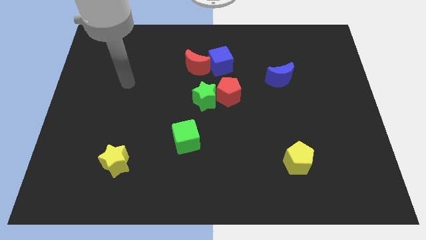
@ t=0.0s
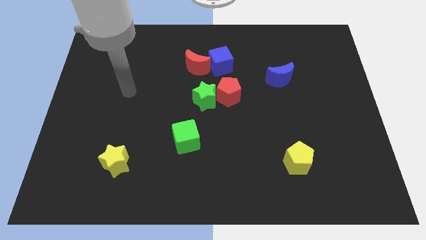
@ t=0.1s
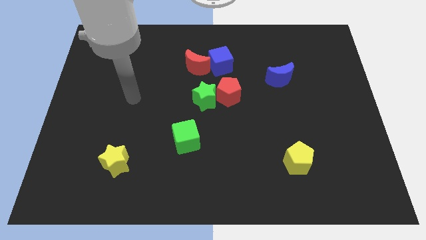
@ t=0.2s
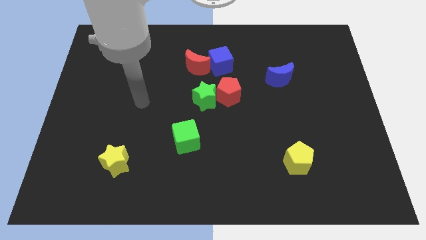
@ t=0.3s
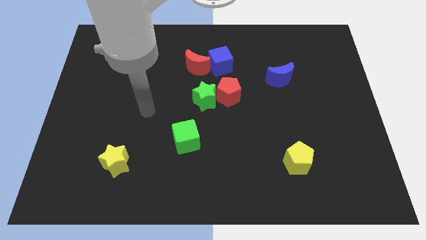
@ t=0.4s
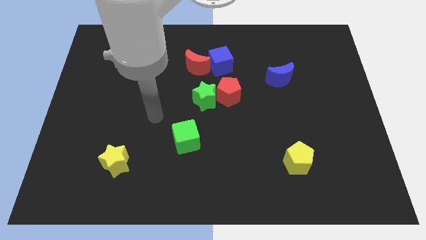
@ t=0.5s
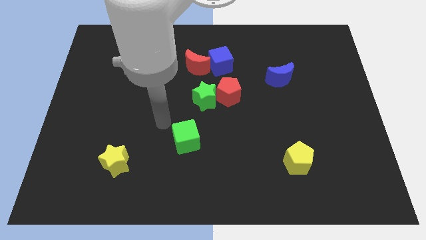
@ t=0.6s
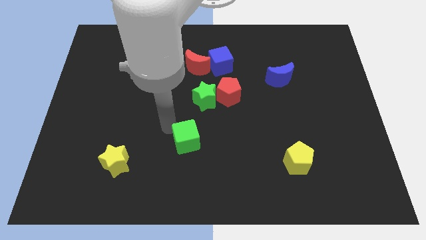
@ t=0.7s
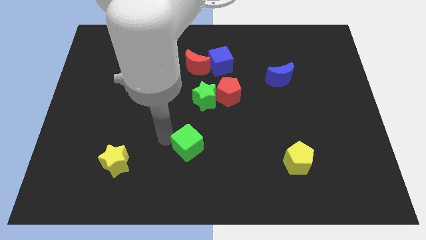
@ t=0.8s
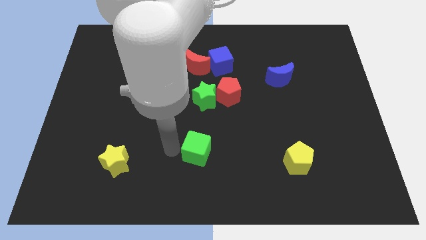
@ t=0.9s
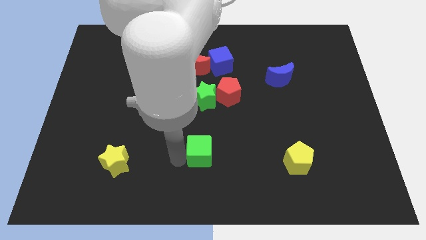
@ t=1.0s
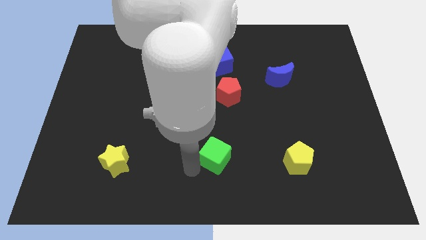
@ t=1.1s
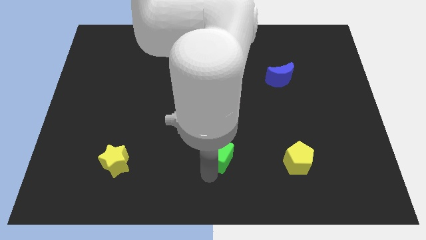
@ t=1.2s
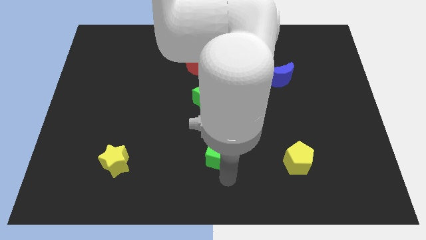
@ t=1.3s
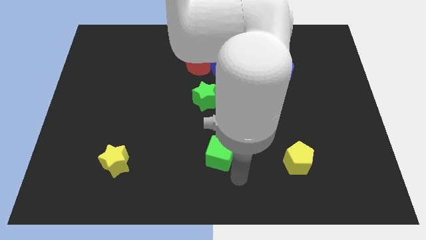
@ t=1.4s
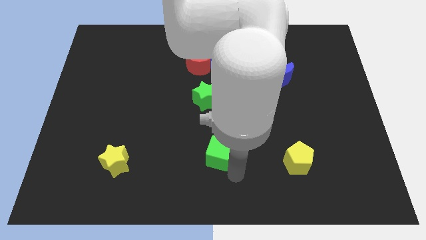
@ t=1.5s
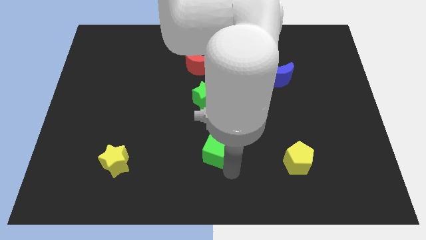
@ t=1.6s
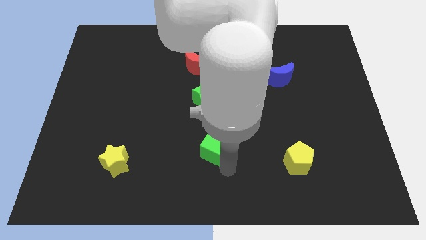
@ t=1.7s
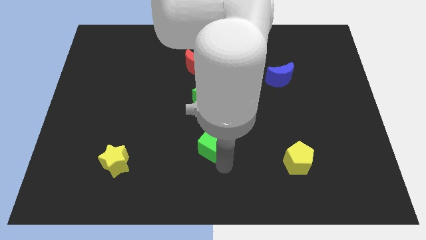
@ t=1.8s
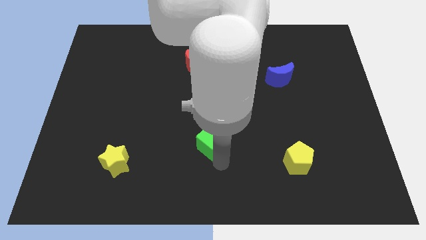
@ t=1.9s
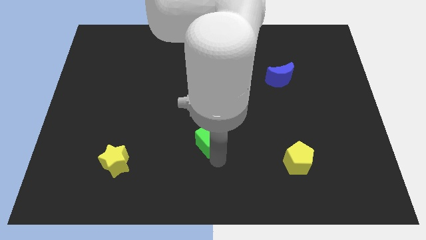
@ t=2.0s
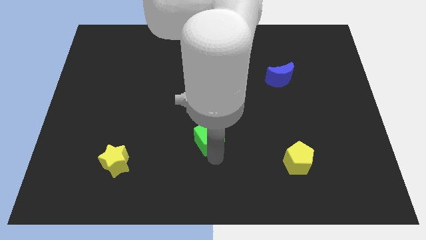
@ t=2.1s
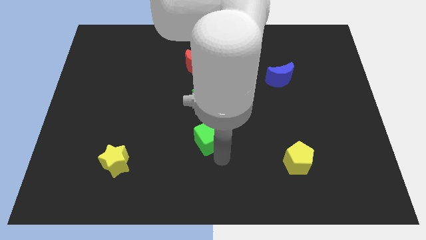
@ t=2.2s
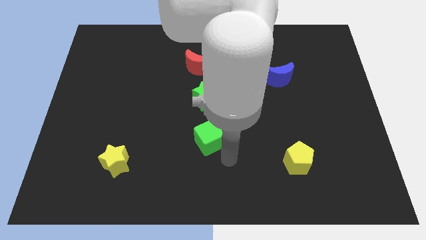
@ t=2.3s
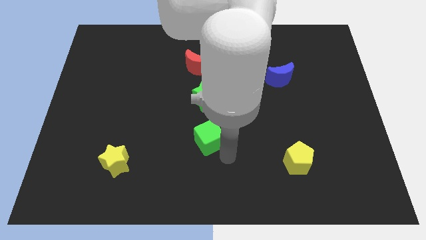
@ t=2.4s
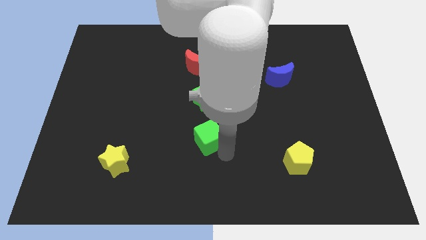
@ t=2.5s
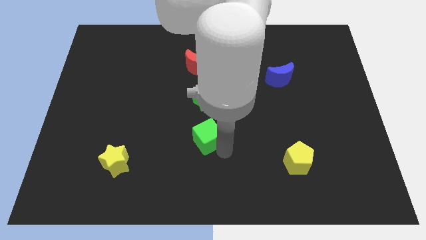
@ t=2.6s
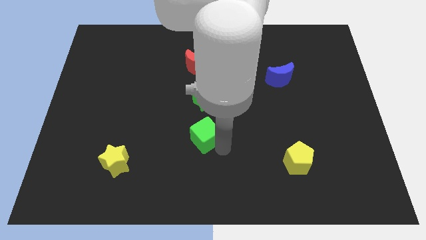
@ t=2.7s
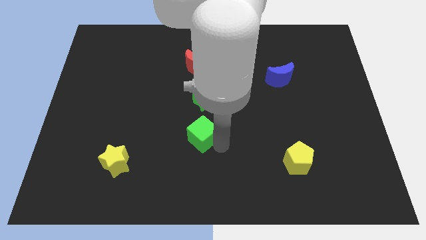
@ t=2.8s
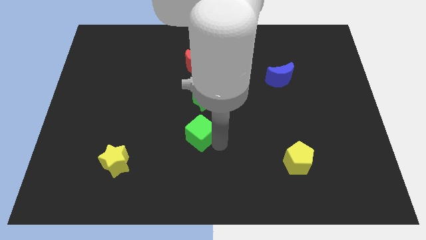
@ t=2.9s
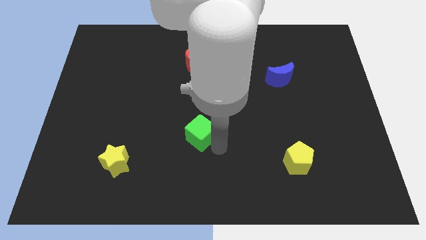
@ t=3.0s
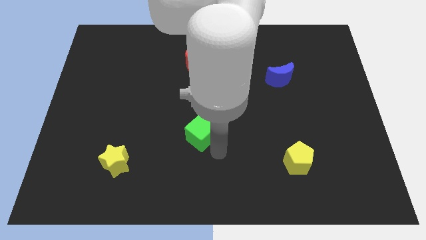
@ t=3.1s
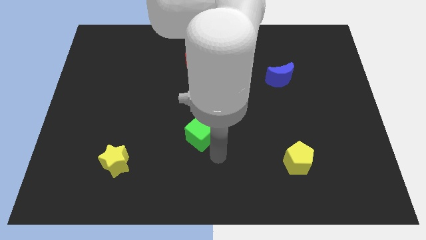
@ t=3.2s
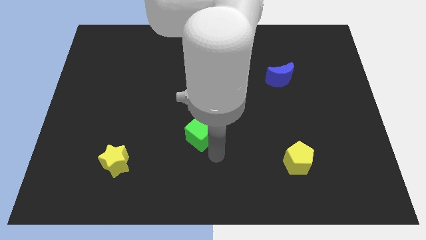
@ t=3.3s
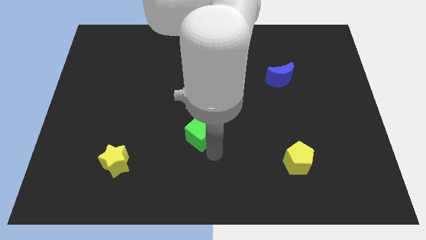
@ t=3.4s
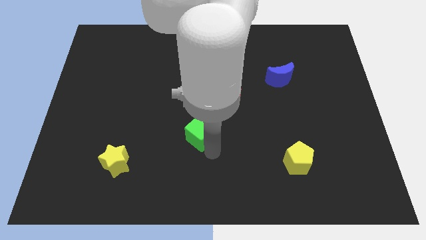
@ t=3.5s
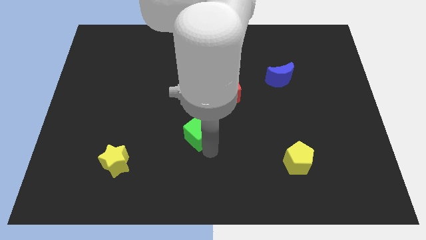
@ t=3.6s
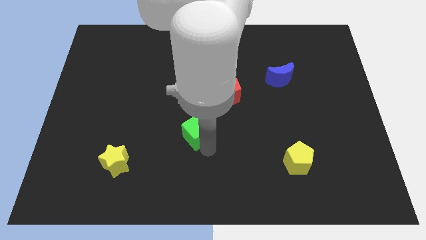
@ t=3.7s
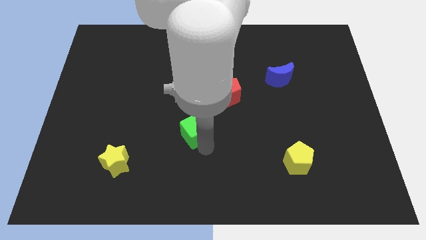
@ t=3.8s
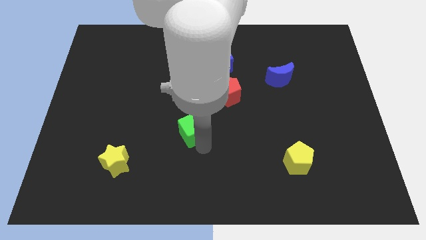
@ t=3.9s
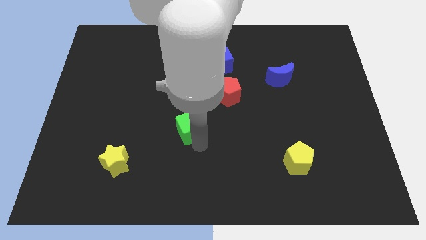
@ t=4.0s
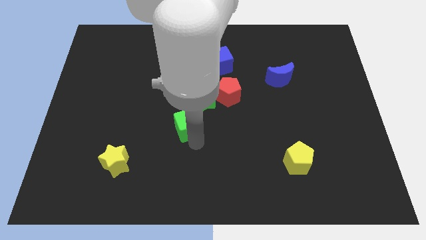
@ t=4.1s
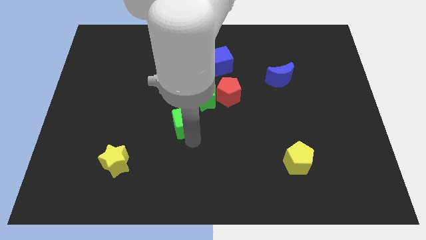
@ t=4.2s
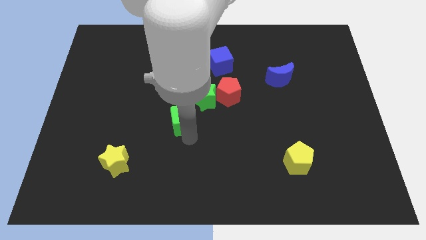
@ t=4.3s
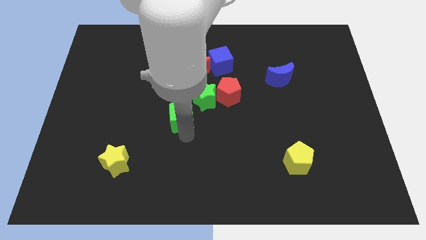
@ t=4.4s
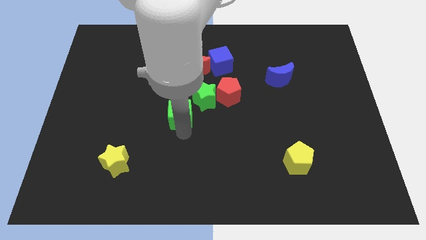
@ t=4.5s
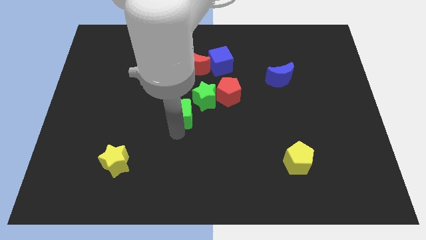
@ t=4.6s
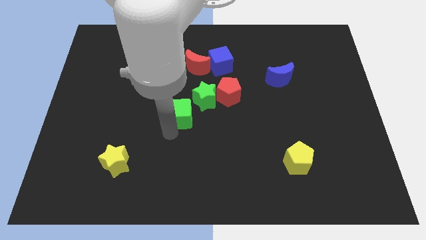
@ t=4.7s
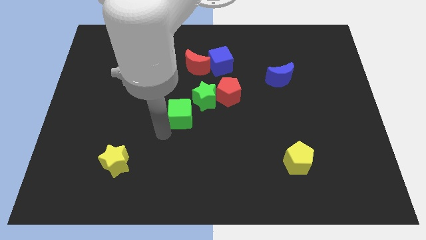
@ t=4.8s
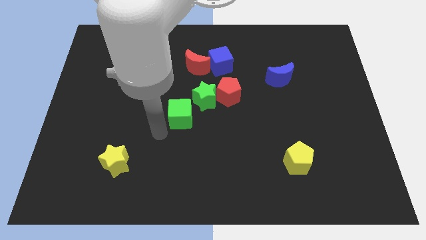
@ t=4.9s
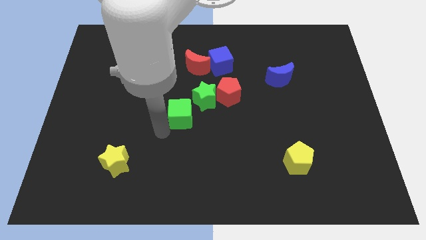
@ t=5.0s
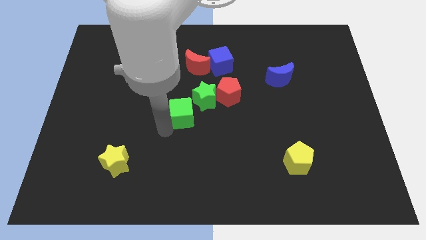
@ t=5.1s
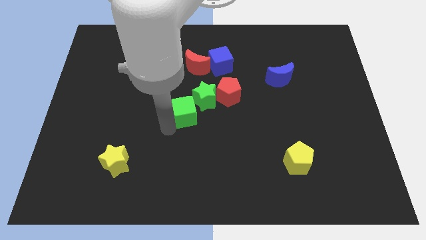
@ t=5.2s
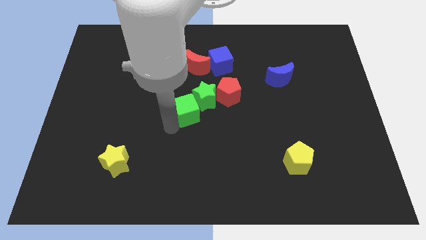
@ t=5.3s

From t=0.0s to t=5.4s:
move the green cube close to the green star

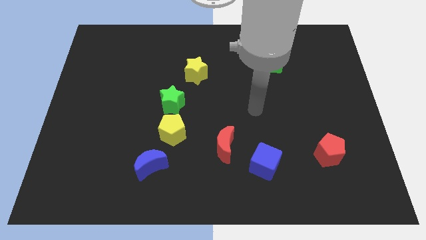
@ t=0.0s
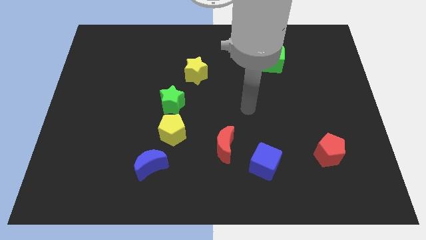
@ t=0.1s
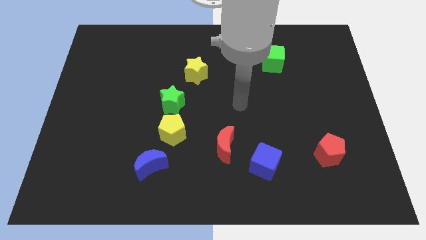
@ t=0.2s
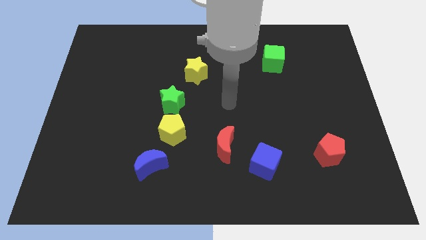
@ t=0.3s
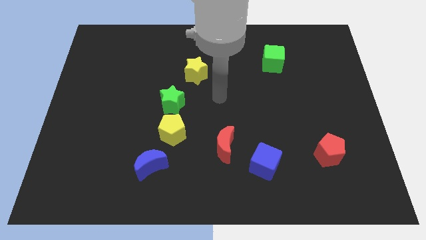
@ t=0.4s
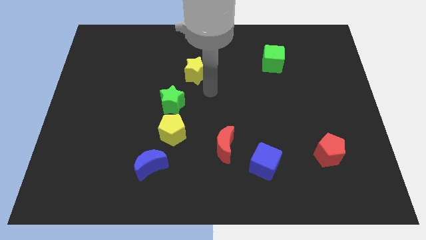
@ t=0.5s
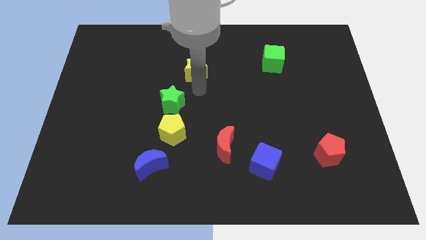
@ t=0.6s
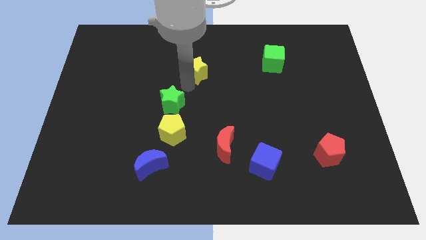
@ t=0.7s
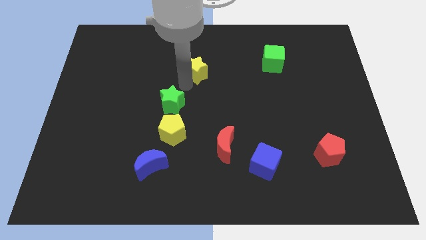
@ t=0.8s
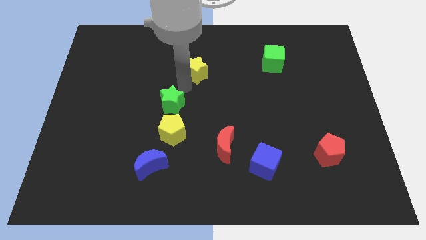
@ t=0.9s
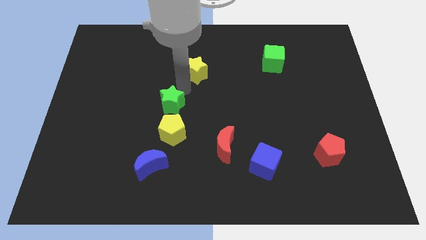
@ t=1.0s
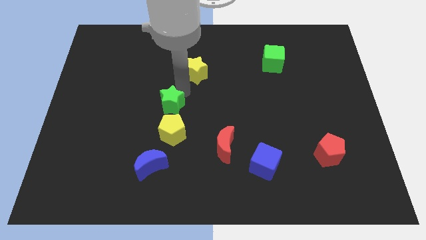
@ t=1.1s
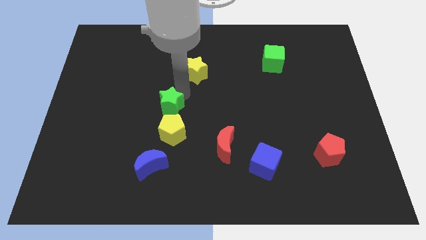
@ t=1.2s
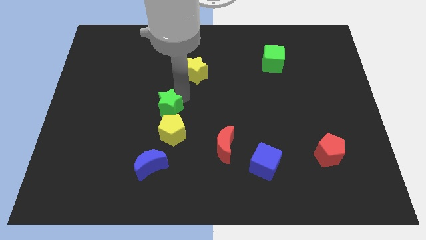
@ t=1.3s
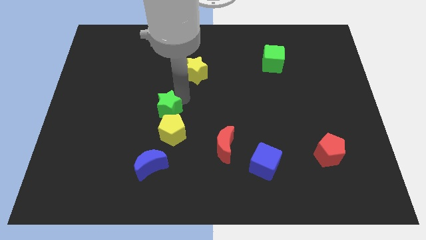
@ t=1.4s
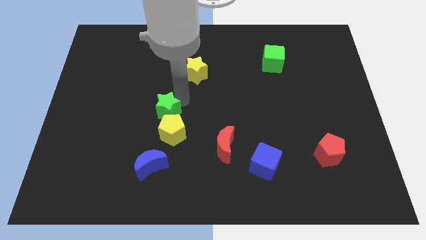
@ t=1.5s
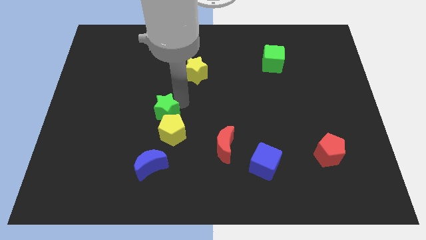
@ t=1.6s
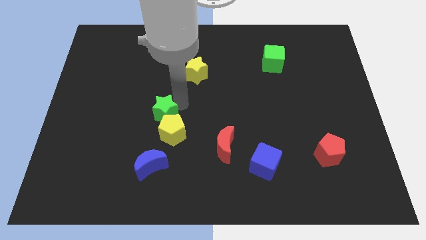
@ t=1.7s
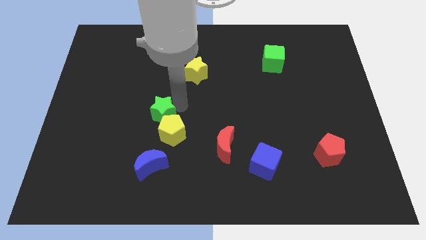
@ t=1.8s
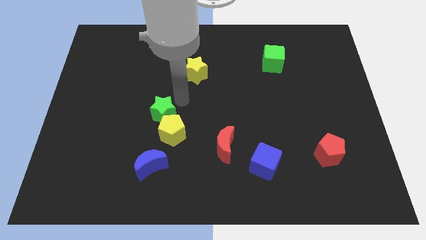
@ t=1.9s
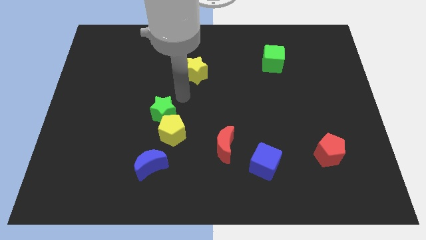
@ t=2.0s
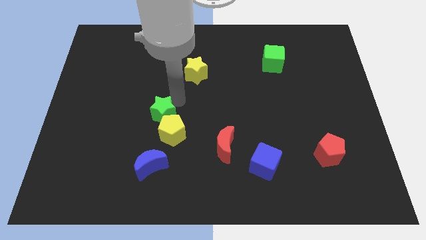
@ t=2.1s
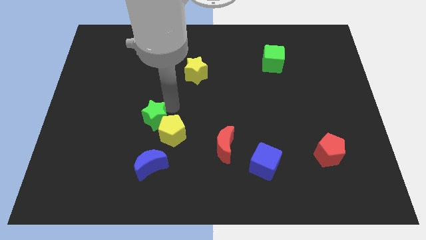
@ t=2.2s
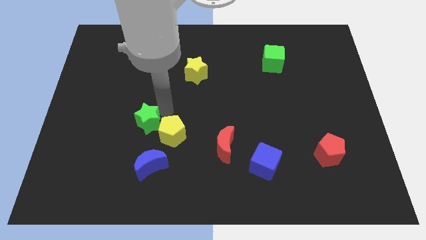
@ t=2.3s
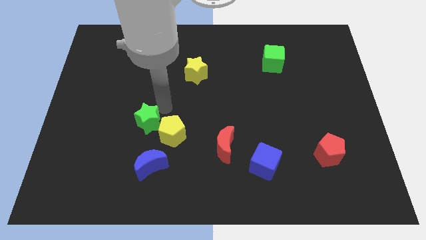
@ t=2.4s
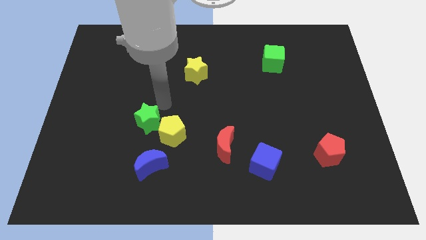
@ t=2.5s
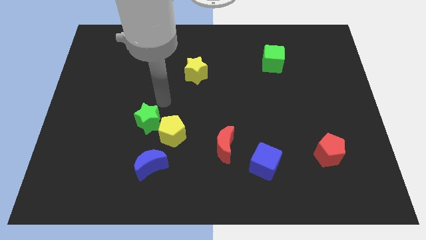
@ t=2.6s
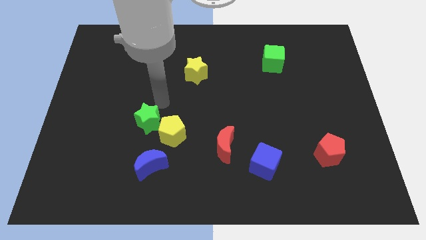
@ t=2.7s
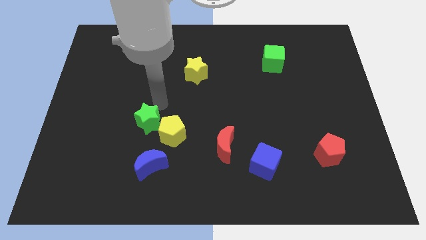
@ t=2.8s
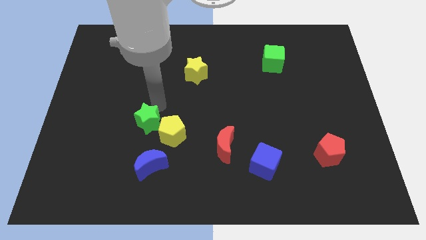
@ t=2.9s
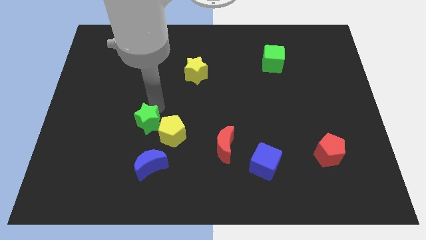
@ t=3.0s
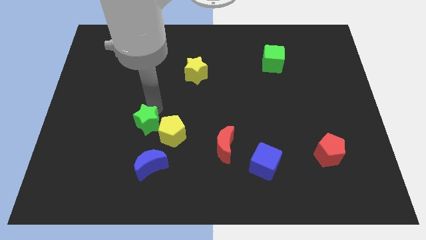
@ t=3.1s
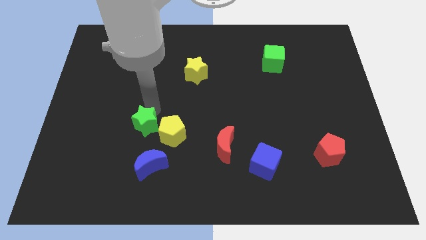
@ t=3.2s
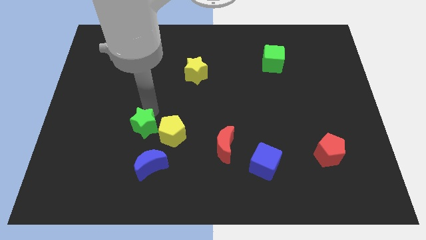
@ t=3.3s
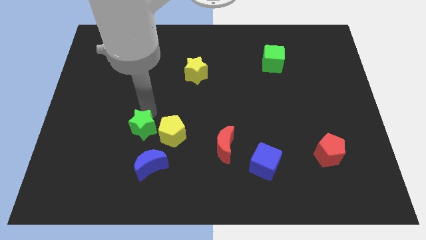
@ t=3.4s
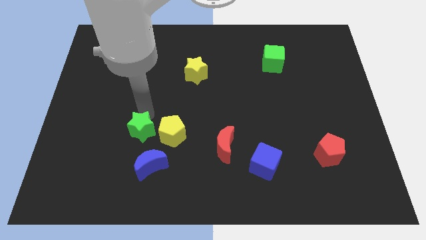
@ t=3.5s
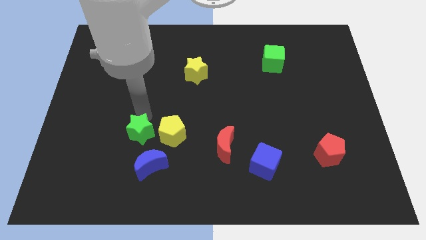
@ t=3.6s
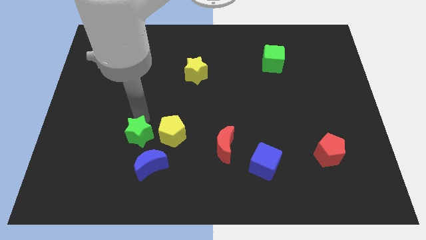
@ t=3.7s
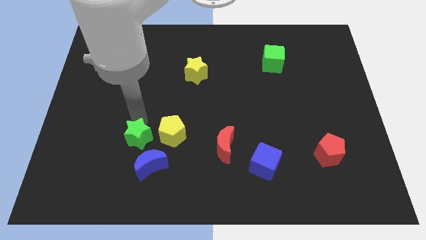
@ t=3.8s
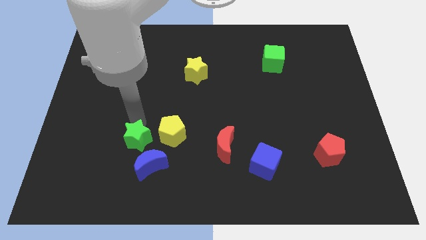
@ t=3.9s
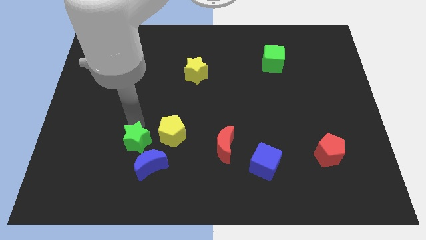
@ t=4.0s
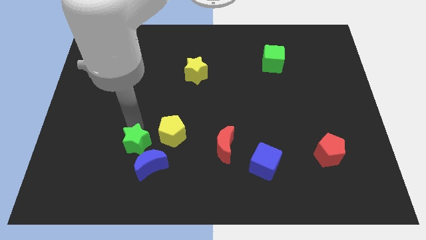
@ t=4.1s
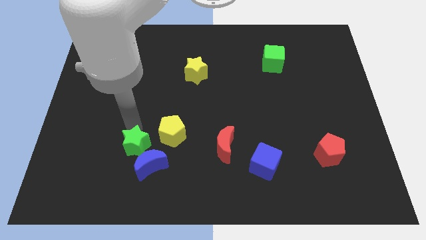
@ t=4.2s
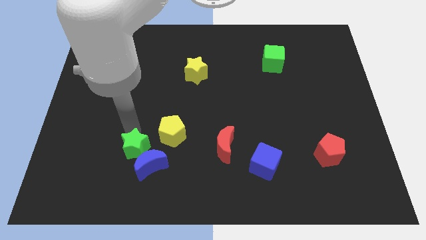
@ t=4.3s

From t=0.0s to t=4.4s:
push the green star close to the blue moon
